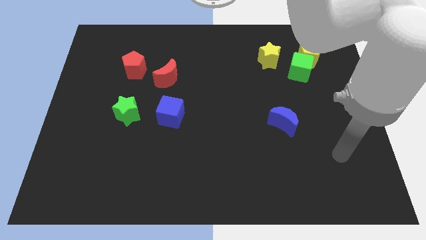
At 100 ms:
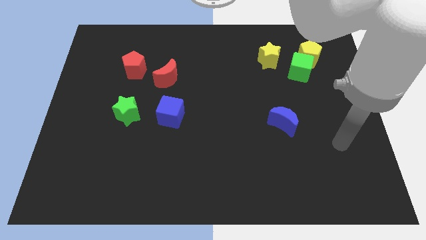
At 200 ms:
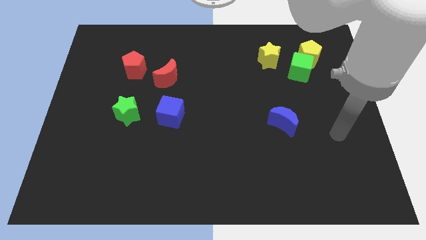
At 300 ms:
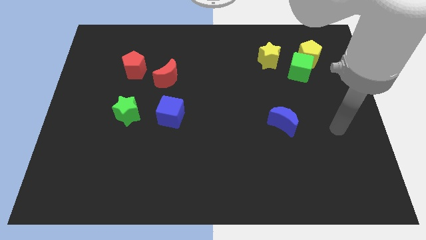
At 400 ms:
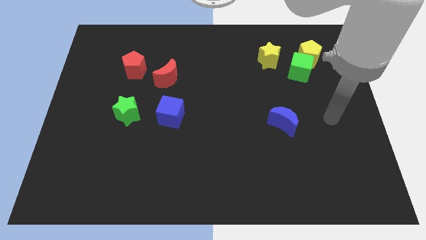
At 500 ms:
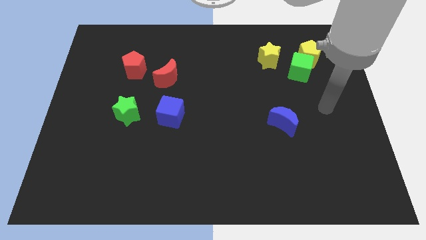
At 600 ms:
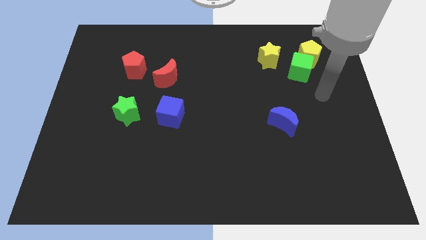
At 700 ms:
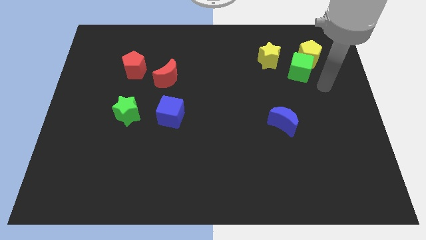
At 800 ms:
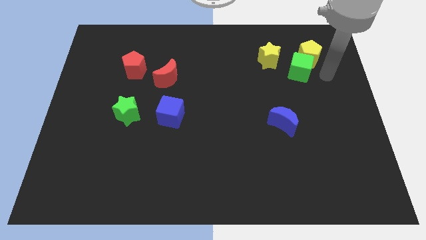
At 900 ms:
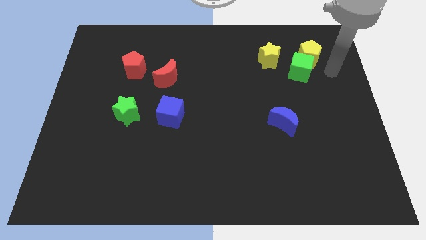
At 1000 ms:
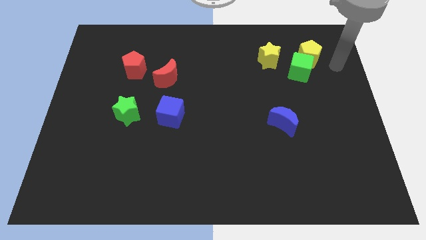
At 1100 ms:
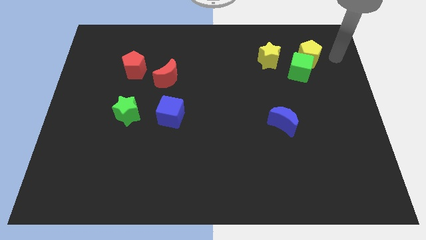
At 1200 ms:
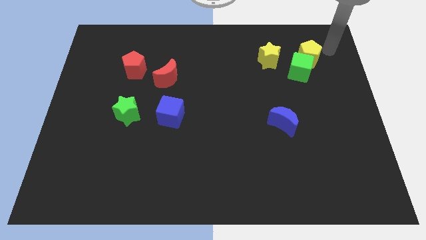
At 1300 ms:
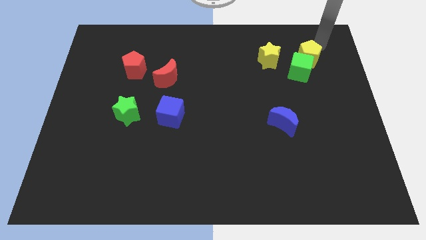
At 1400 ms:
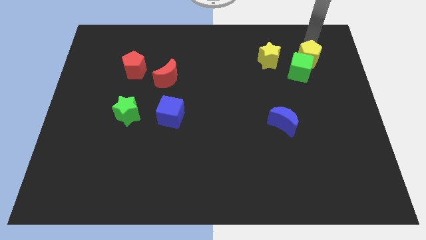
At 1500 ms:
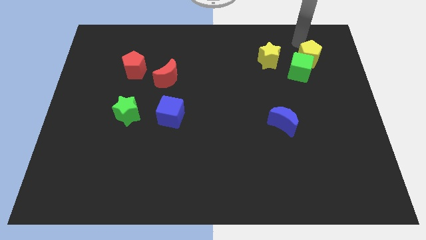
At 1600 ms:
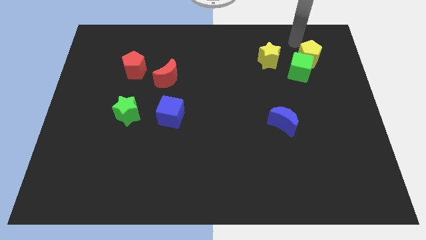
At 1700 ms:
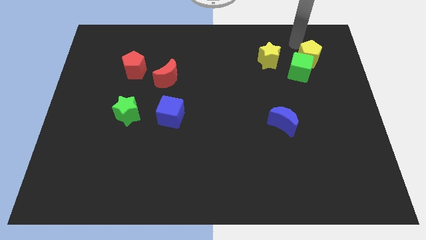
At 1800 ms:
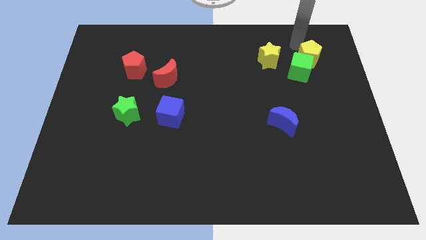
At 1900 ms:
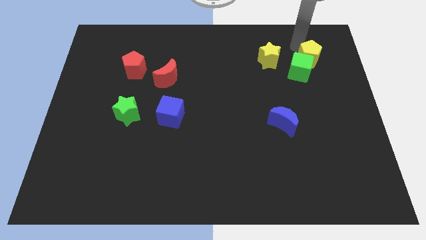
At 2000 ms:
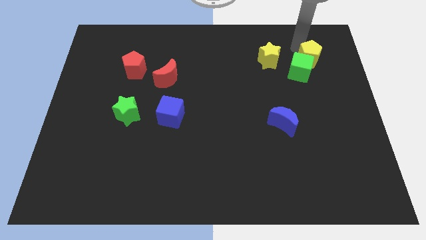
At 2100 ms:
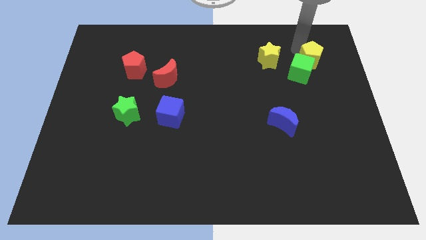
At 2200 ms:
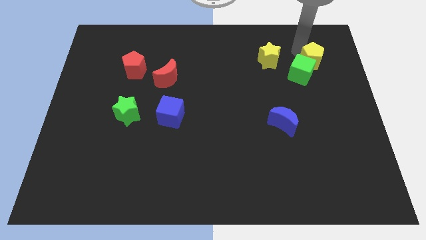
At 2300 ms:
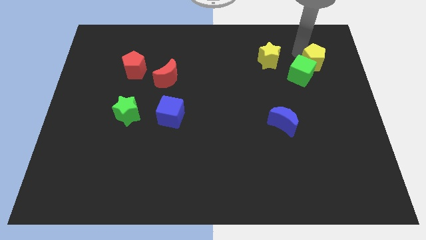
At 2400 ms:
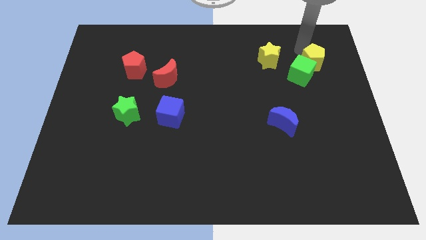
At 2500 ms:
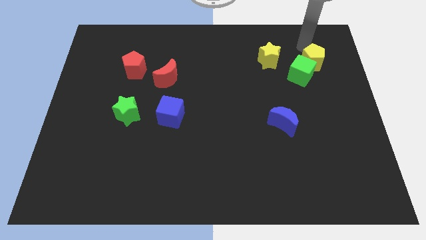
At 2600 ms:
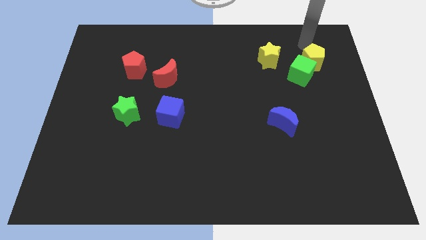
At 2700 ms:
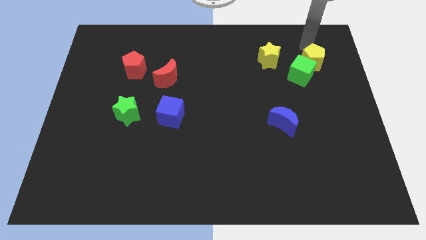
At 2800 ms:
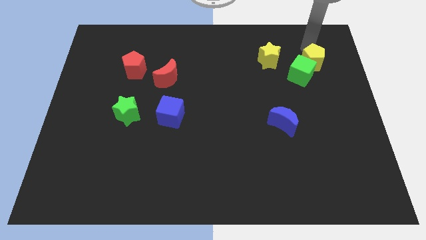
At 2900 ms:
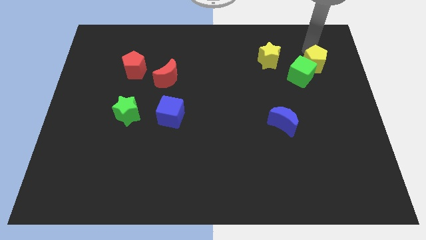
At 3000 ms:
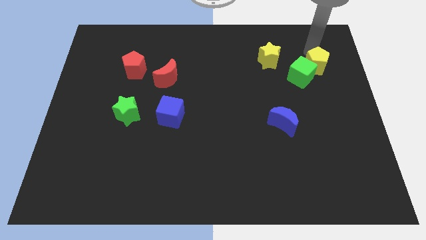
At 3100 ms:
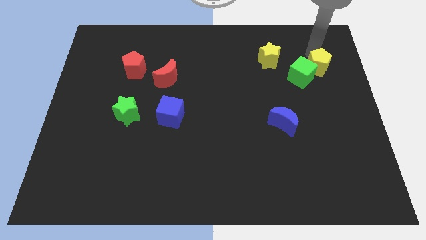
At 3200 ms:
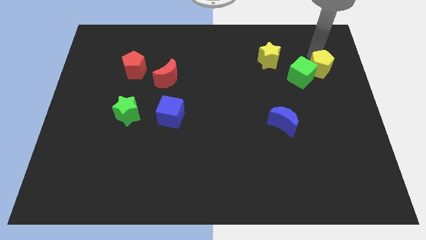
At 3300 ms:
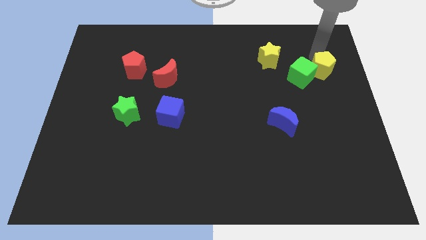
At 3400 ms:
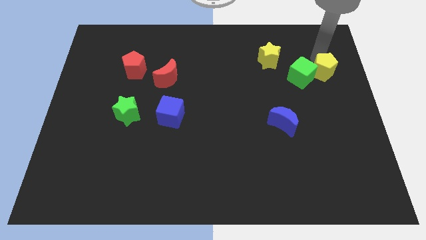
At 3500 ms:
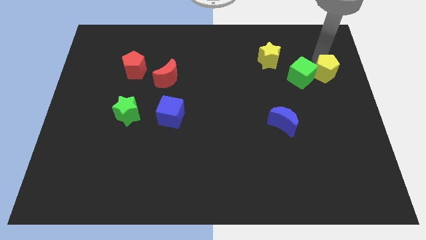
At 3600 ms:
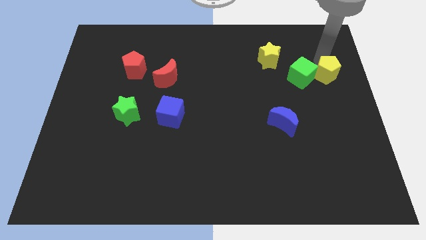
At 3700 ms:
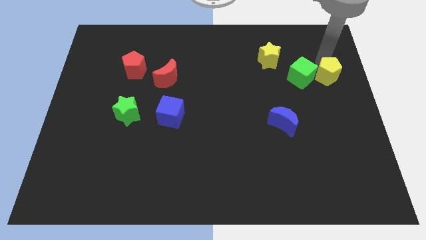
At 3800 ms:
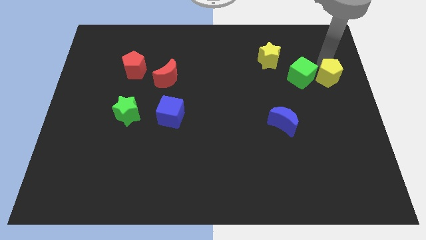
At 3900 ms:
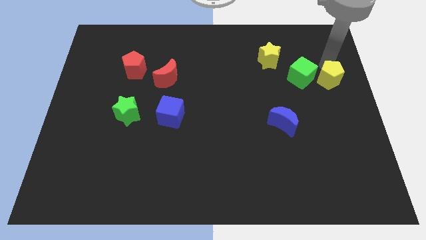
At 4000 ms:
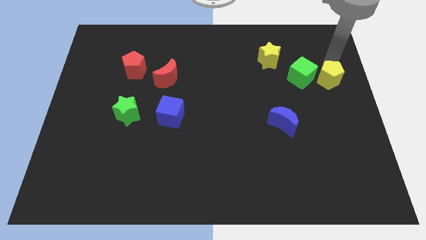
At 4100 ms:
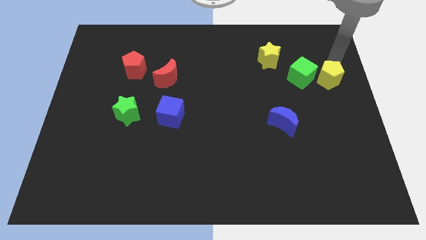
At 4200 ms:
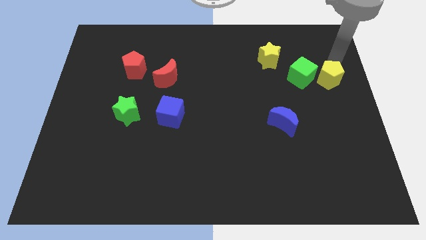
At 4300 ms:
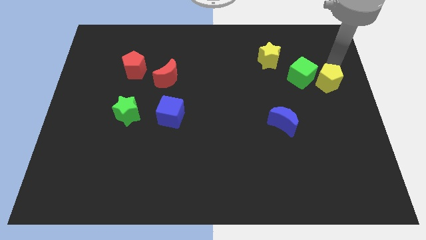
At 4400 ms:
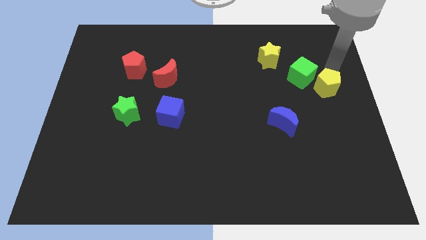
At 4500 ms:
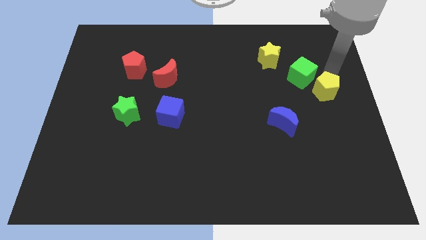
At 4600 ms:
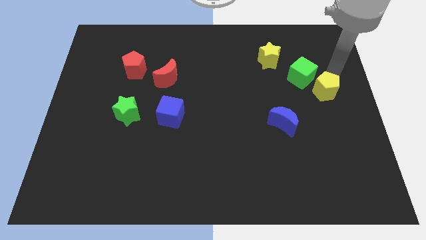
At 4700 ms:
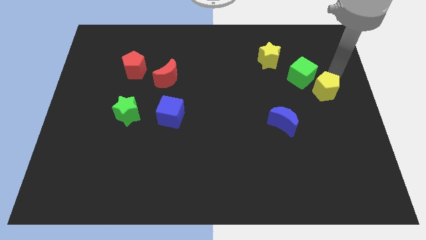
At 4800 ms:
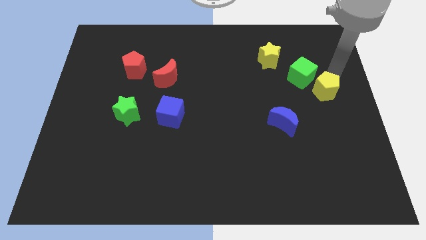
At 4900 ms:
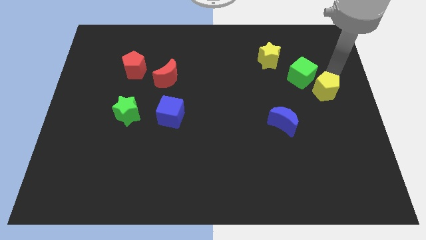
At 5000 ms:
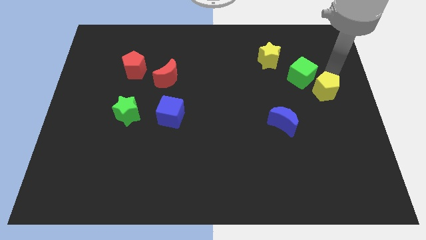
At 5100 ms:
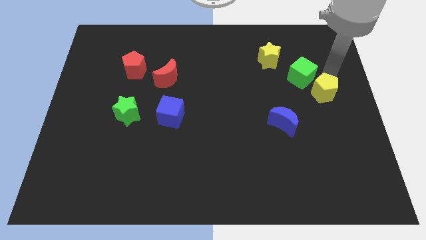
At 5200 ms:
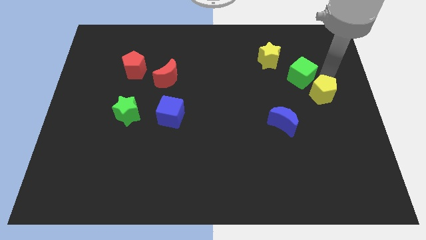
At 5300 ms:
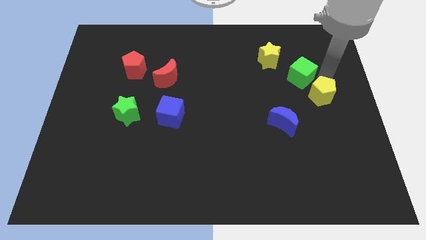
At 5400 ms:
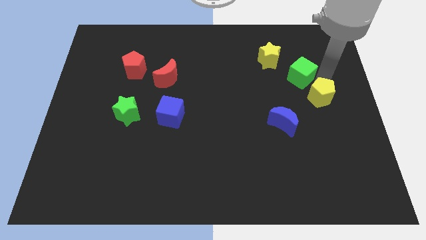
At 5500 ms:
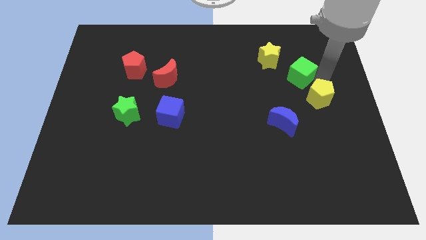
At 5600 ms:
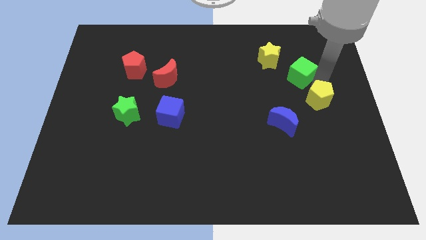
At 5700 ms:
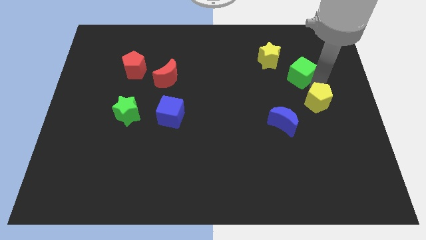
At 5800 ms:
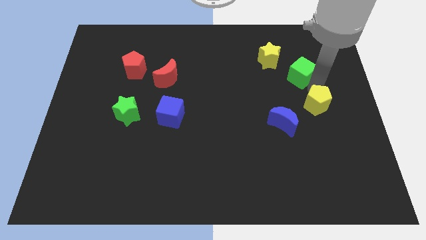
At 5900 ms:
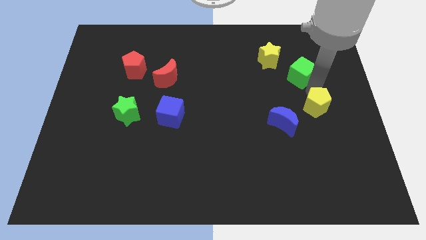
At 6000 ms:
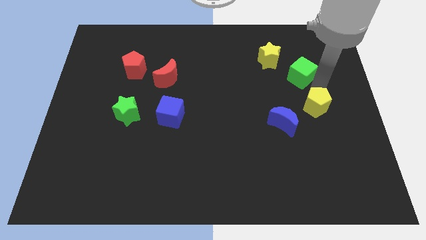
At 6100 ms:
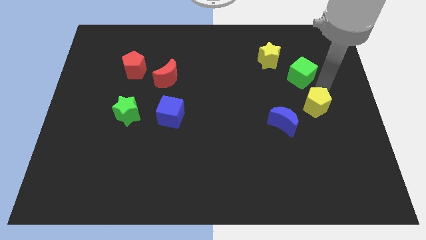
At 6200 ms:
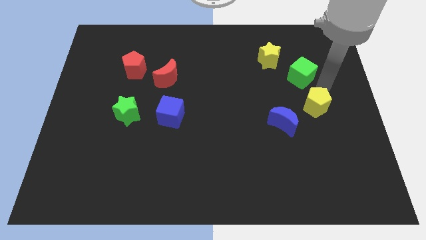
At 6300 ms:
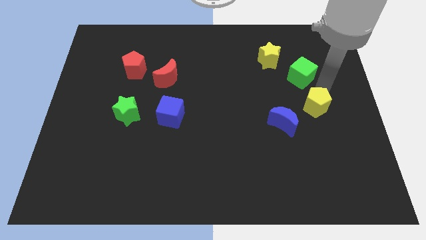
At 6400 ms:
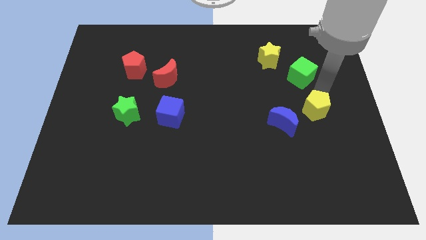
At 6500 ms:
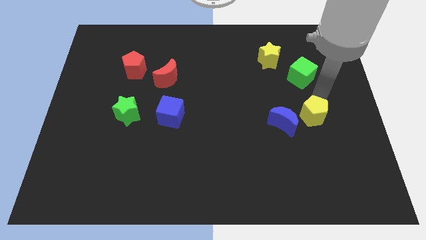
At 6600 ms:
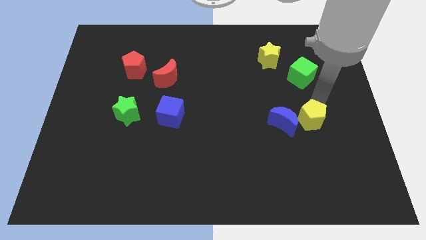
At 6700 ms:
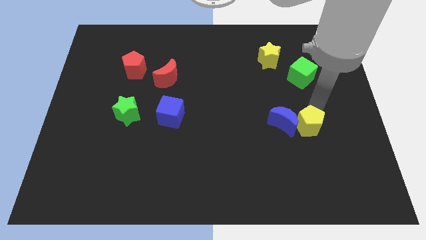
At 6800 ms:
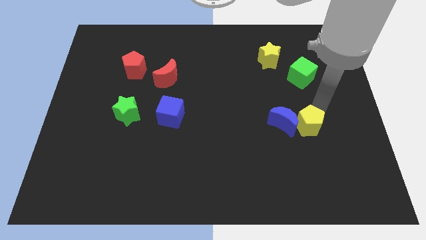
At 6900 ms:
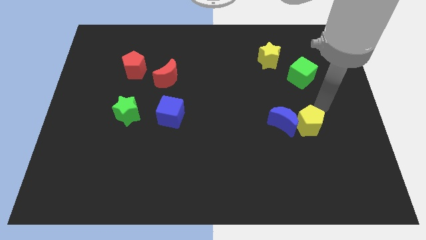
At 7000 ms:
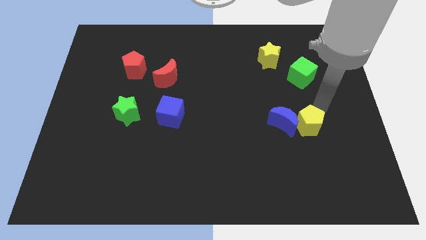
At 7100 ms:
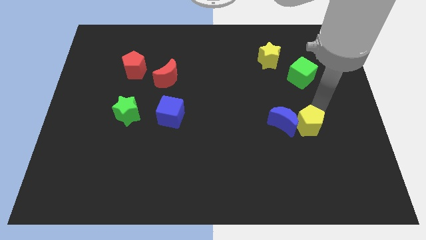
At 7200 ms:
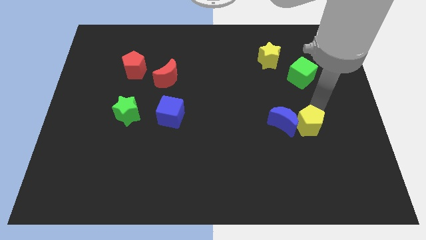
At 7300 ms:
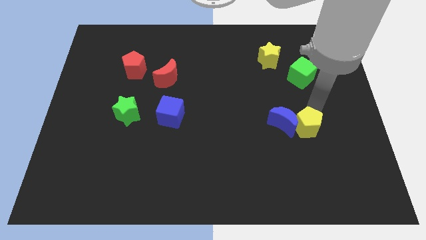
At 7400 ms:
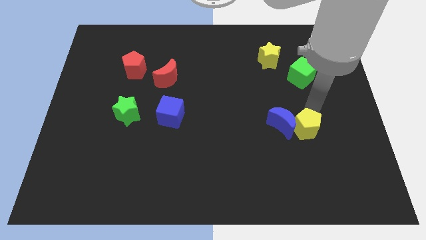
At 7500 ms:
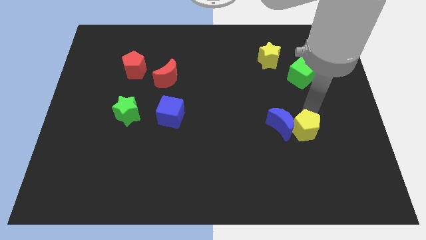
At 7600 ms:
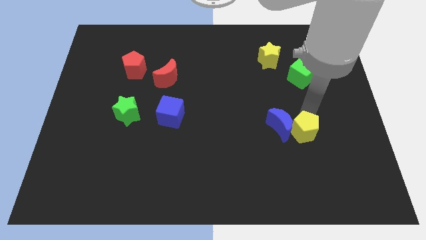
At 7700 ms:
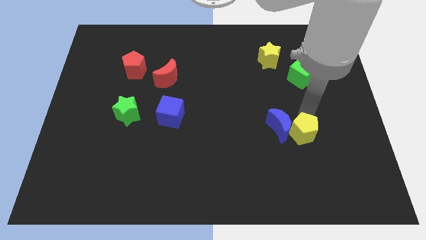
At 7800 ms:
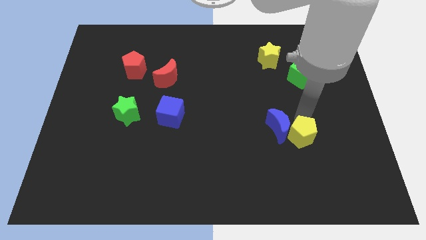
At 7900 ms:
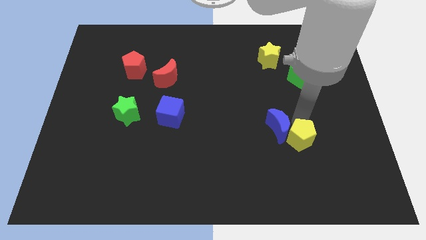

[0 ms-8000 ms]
push the yellow pentagon below the blue moon
